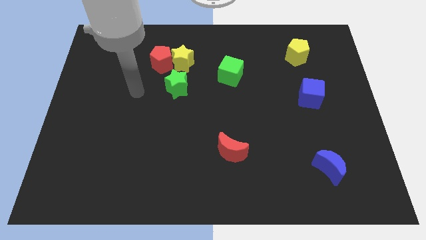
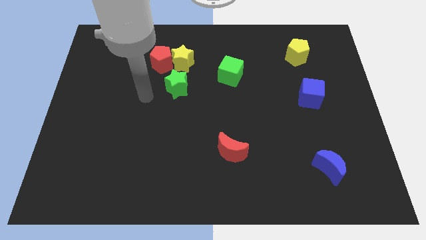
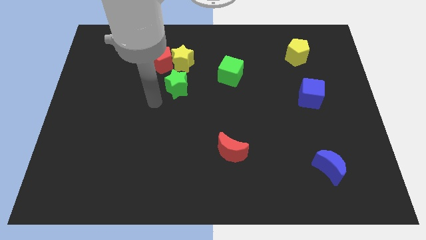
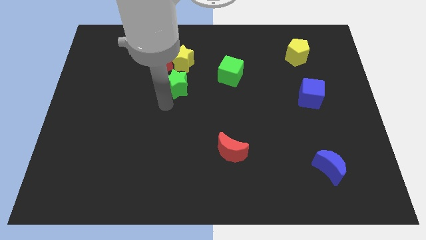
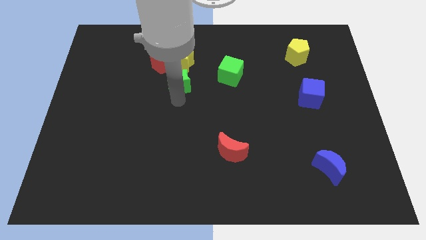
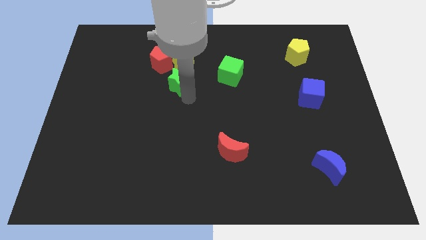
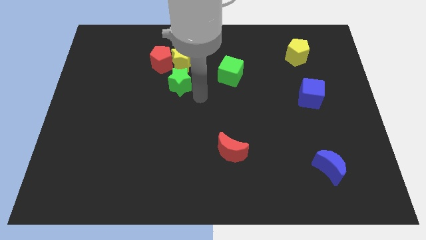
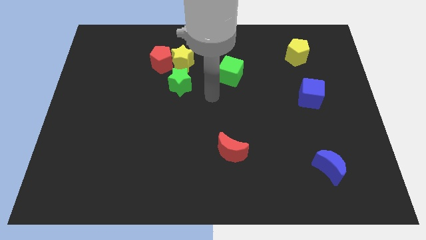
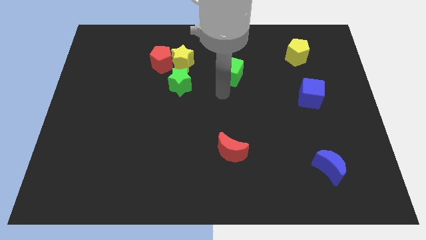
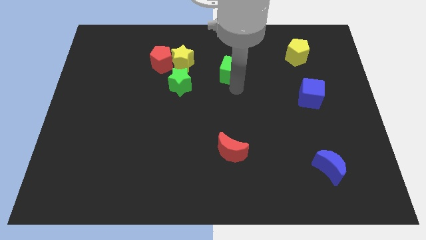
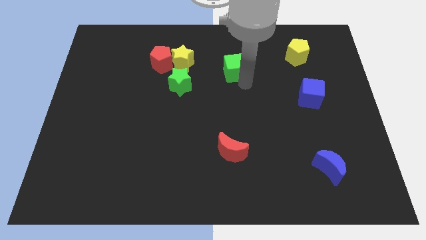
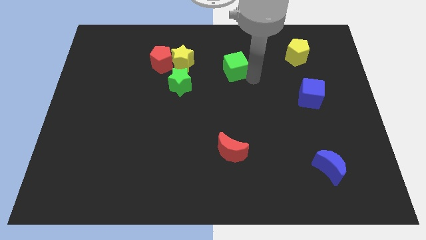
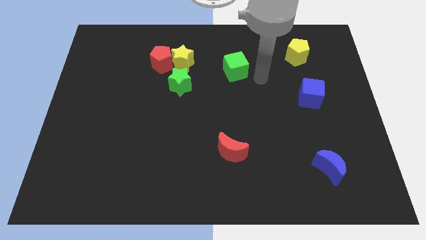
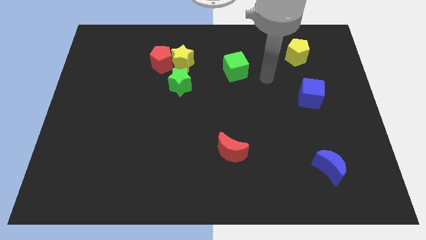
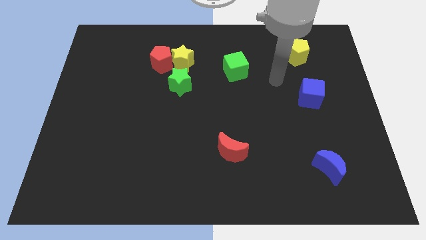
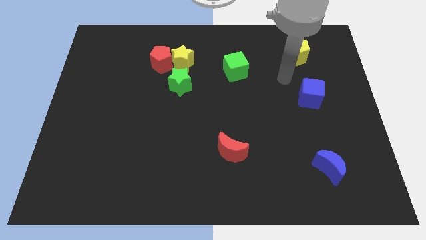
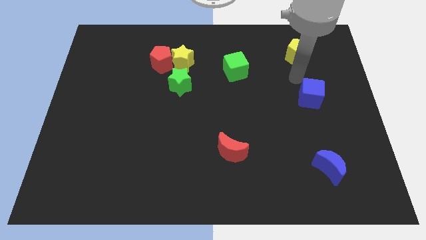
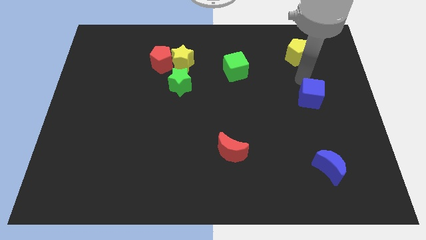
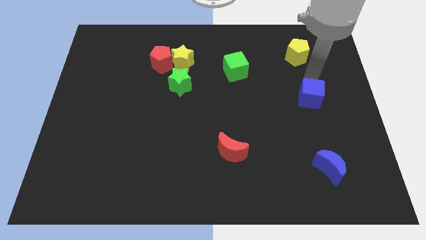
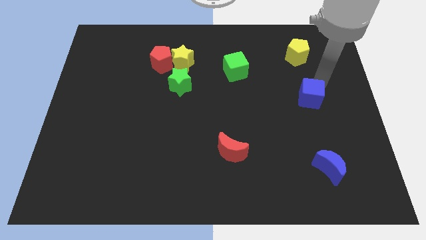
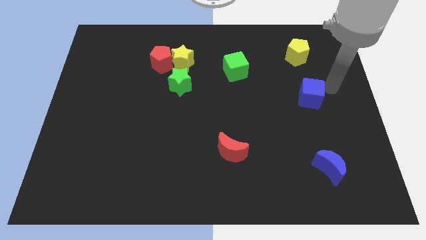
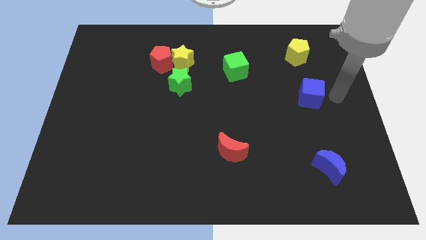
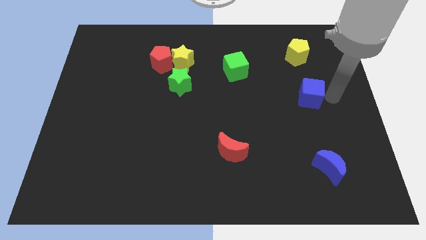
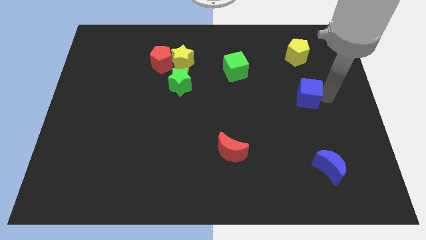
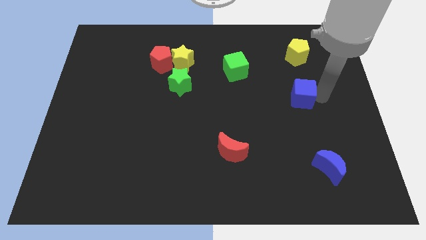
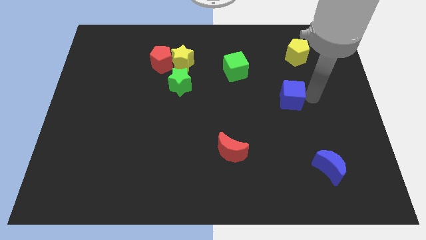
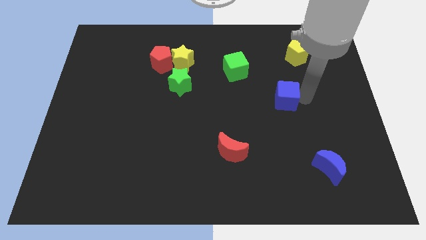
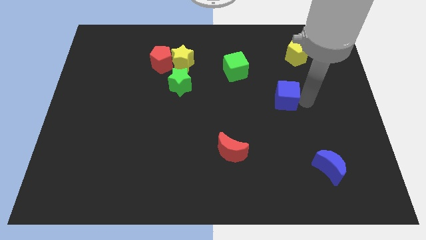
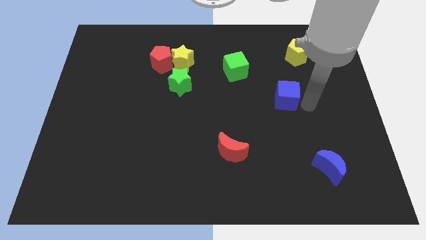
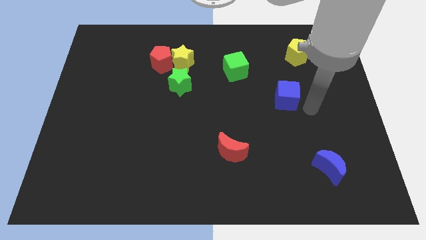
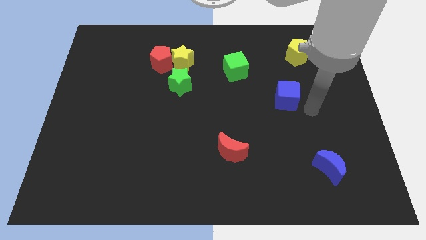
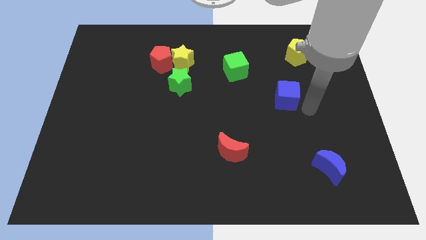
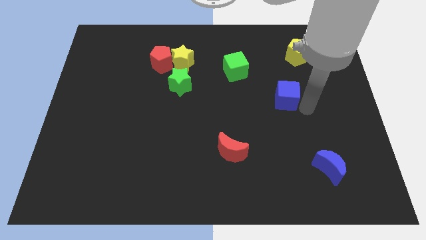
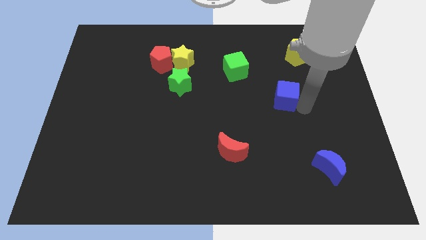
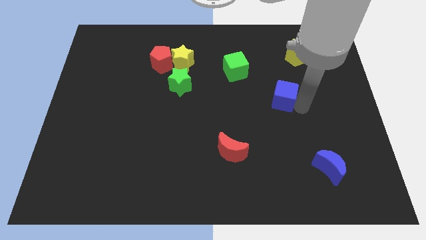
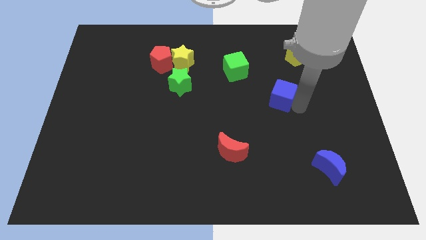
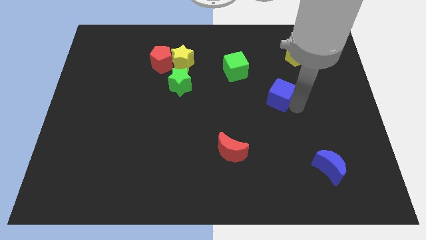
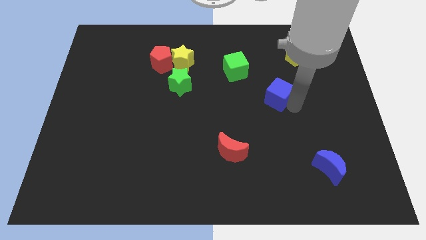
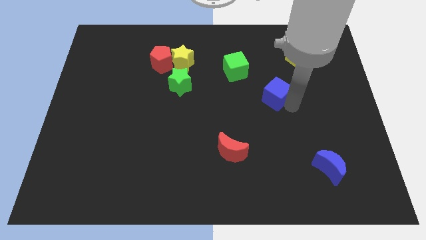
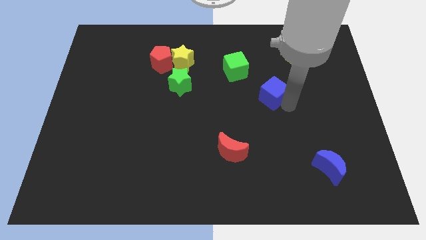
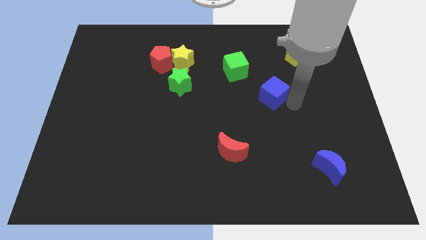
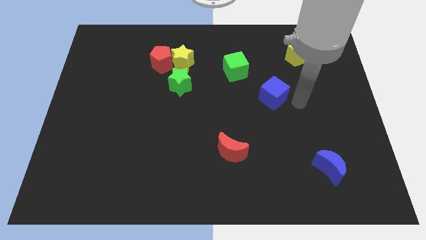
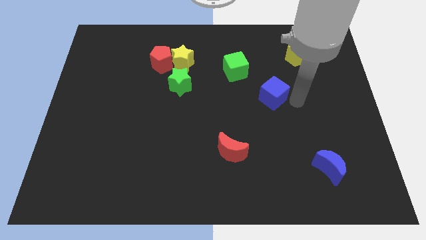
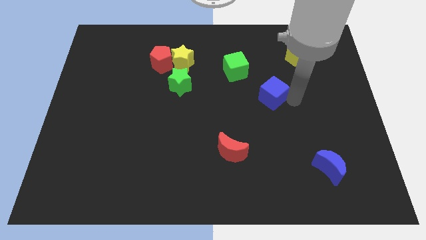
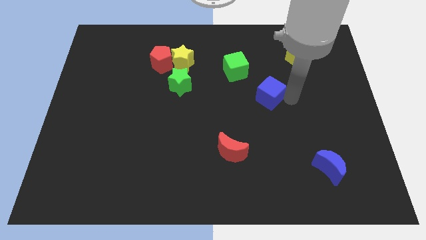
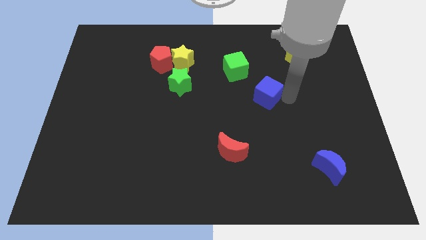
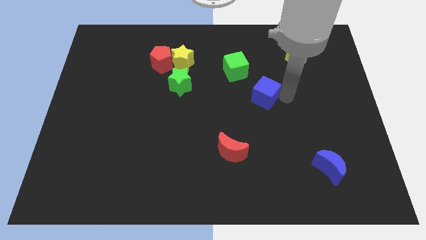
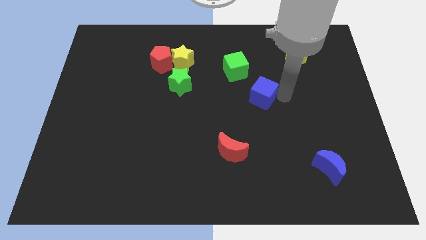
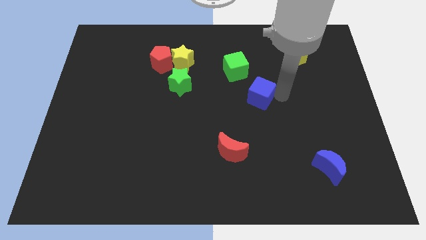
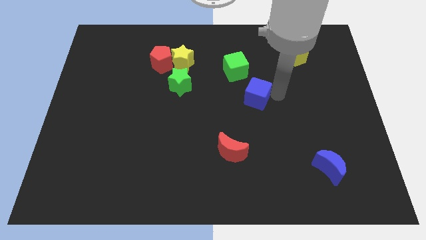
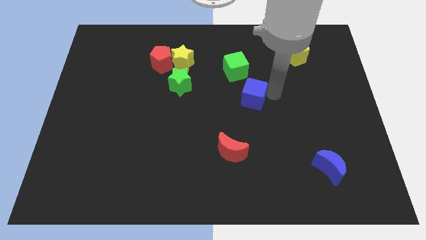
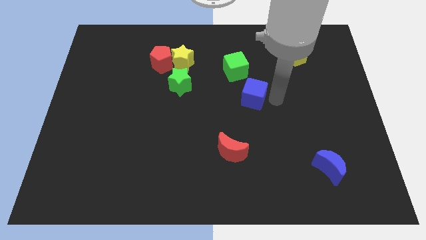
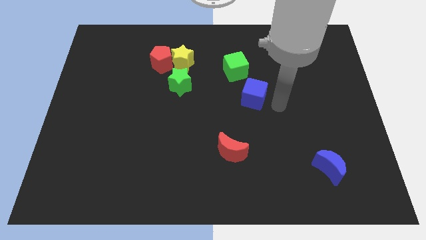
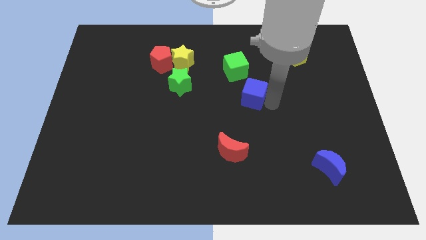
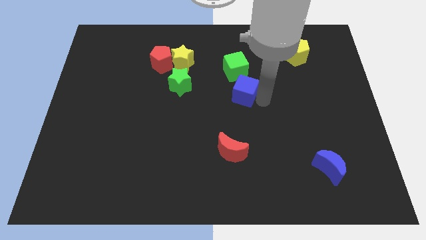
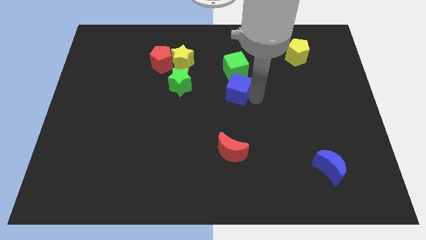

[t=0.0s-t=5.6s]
push the blue cube to the right of the green star

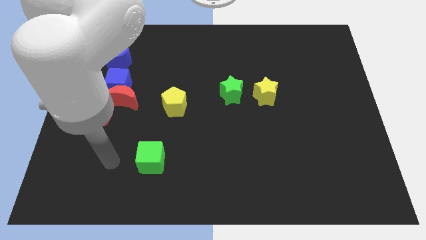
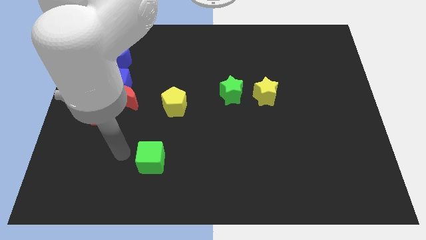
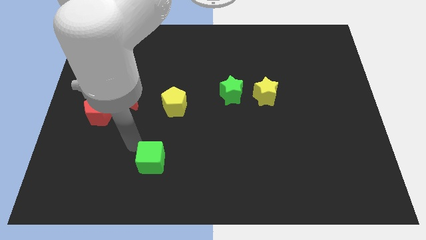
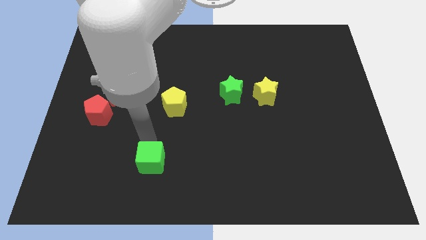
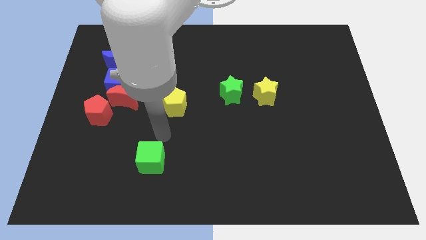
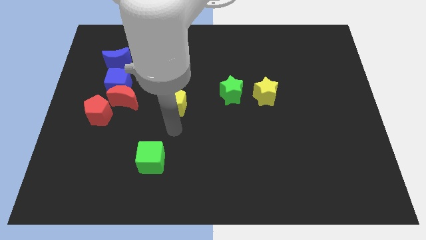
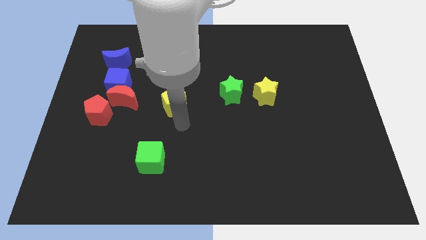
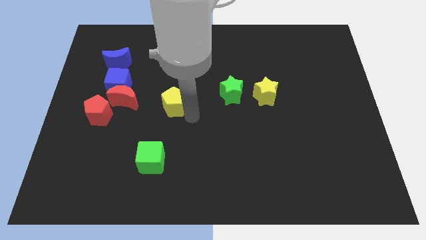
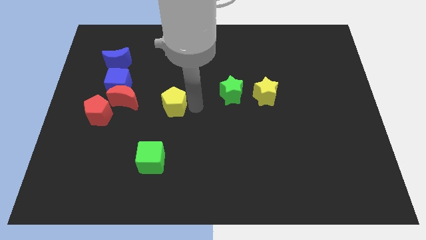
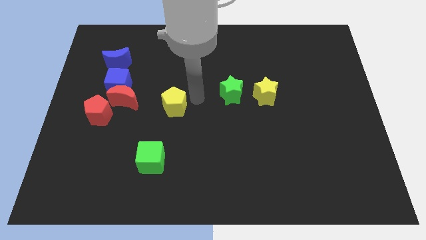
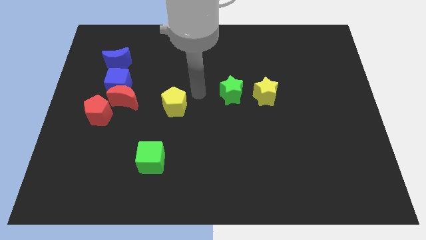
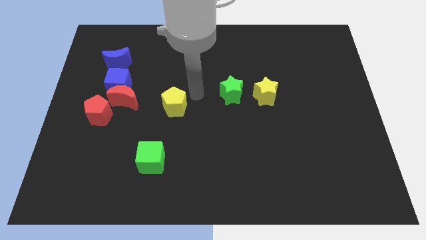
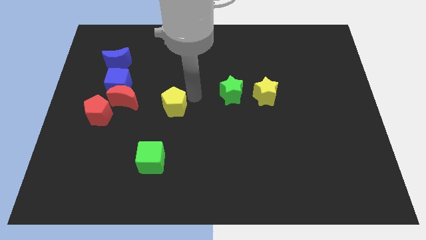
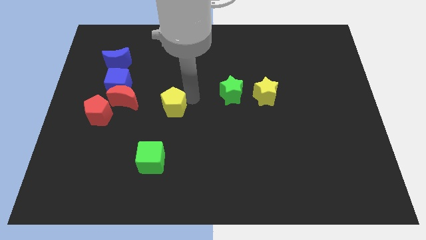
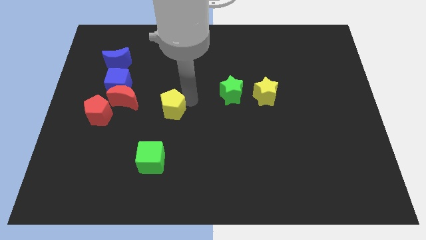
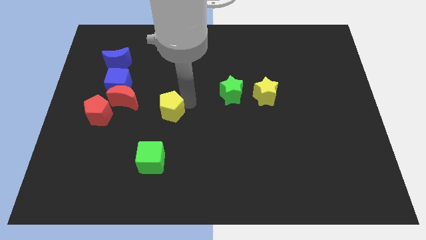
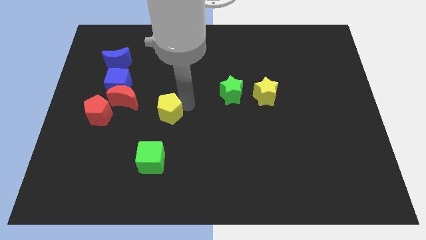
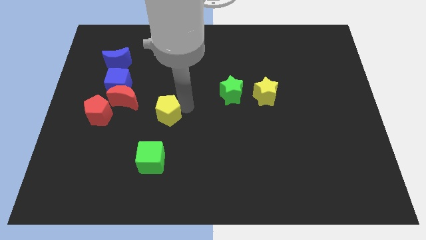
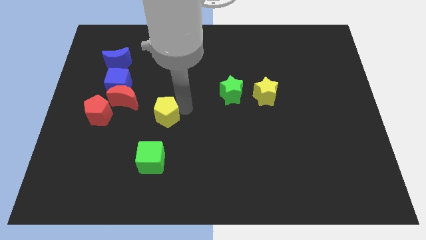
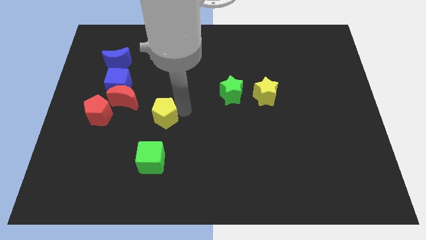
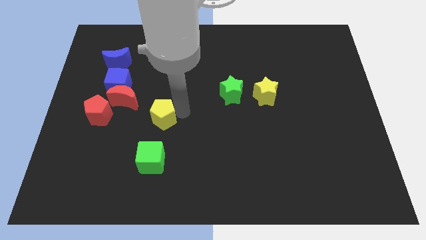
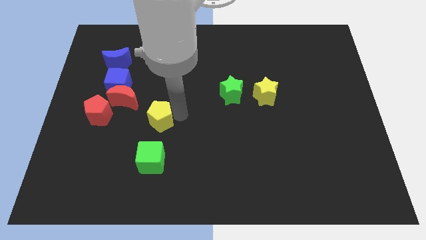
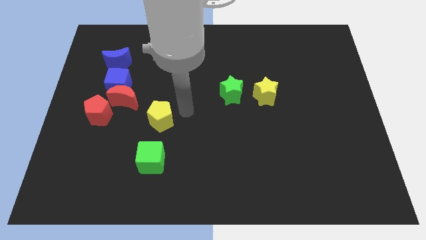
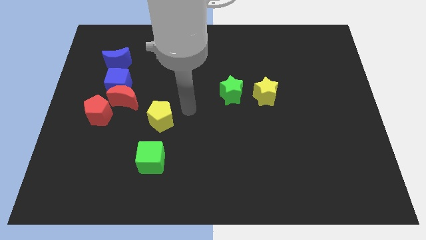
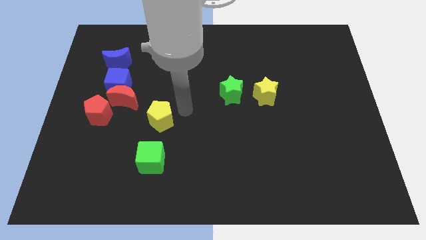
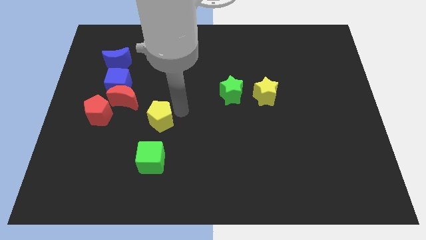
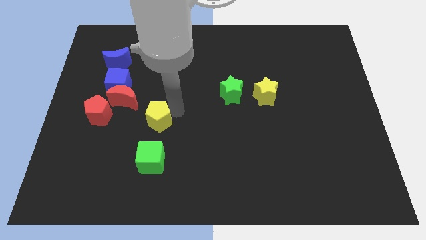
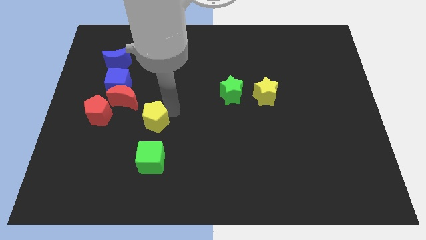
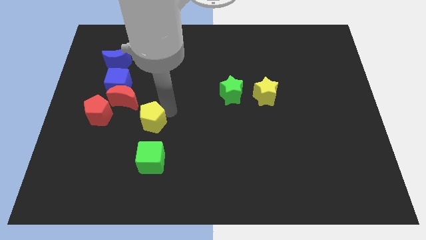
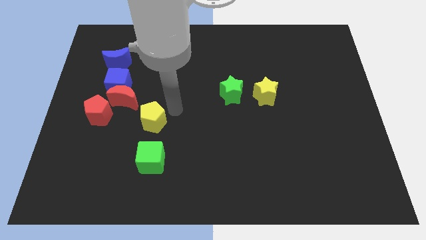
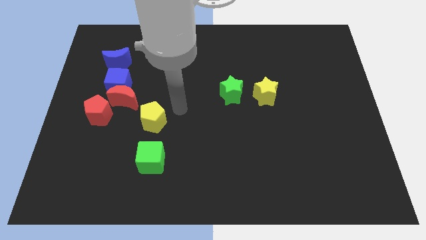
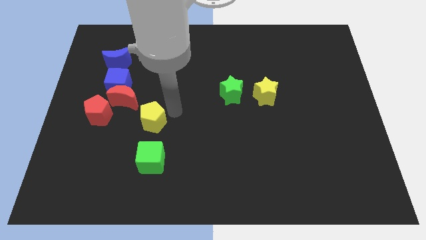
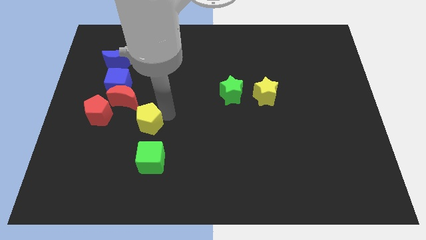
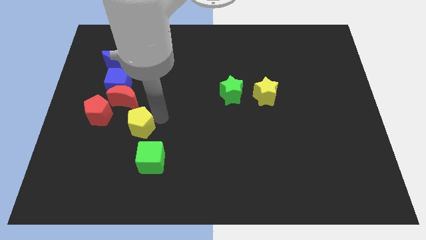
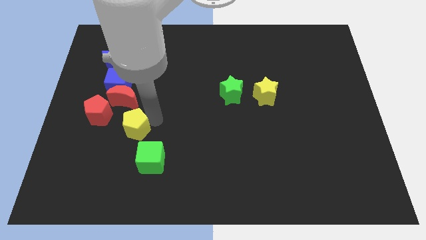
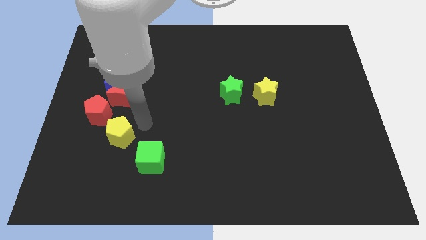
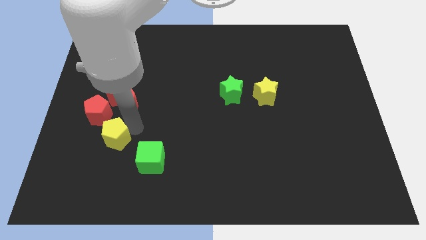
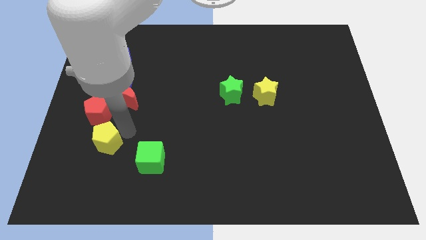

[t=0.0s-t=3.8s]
move the yellow pentagon to the bottom side of the red pentagon
